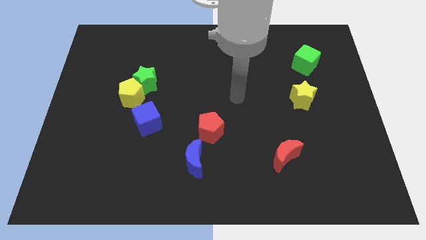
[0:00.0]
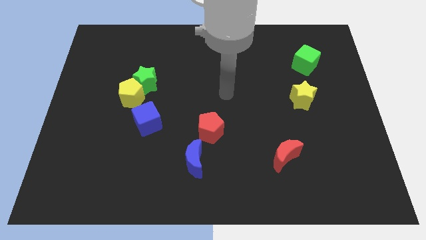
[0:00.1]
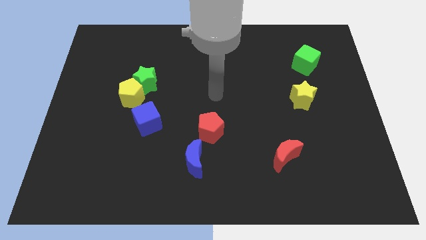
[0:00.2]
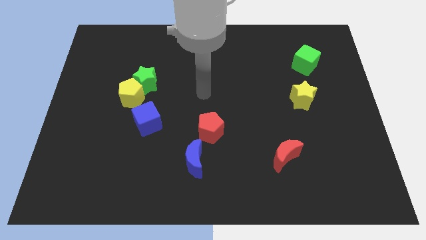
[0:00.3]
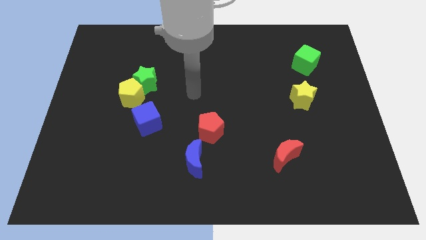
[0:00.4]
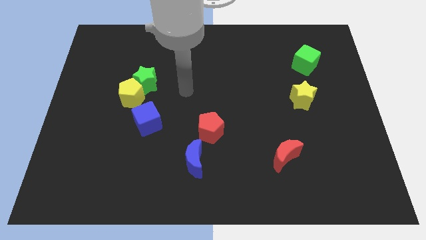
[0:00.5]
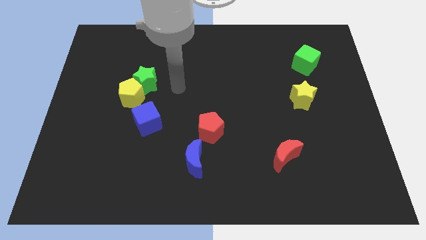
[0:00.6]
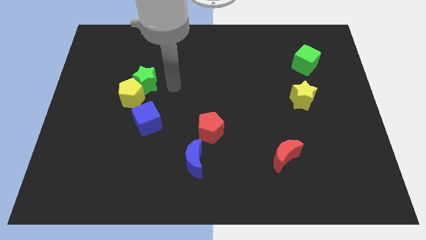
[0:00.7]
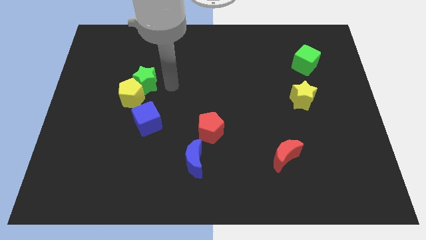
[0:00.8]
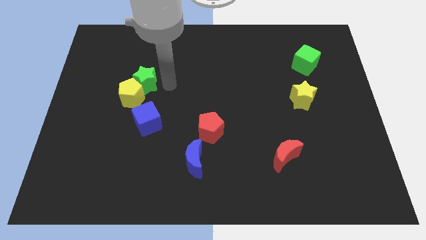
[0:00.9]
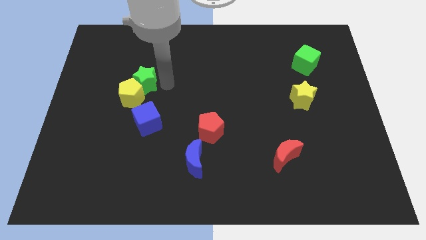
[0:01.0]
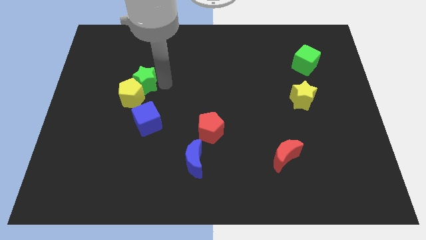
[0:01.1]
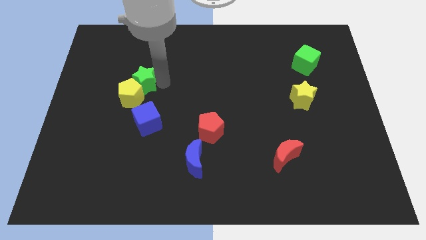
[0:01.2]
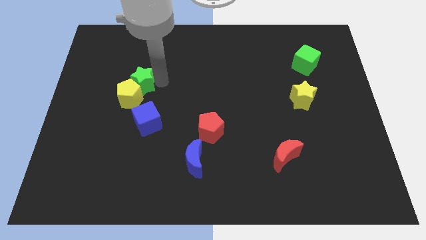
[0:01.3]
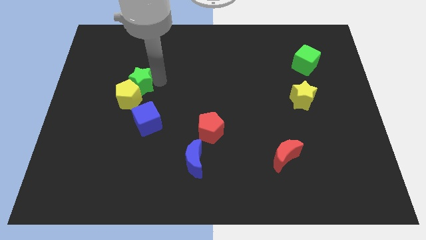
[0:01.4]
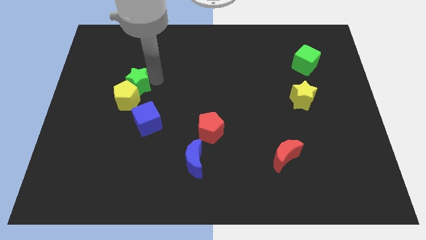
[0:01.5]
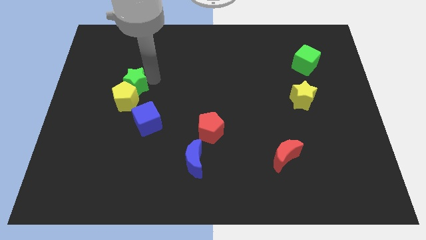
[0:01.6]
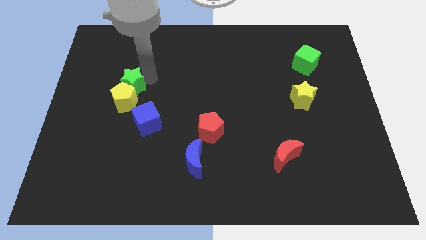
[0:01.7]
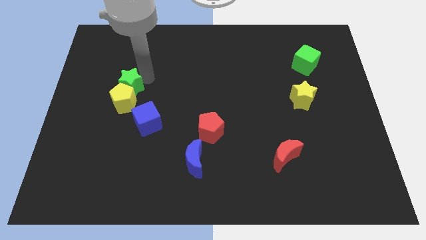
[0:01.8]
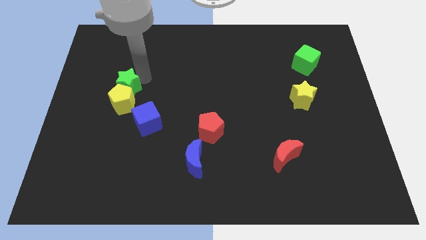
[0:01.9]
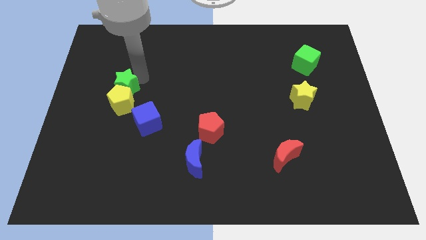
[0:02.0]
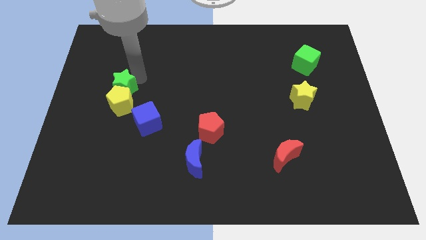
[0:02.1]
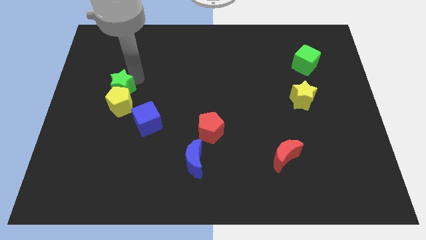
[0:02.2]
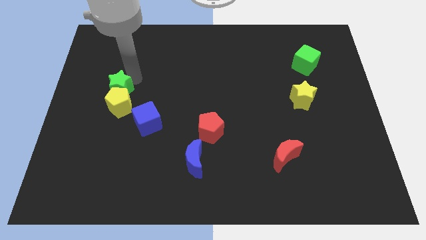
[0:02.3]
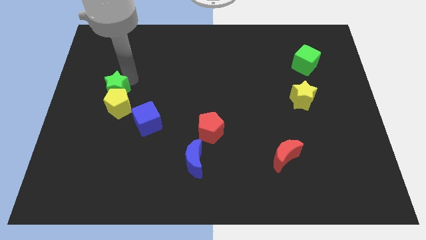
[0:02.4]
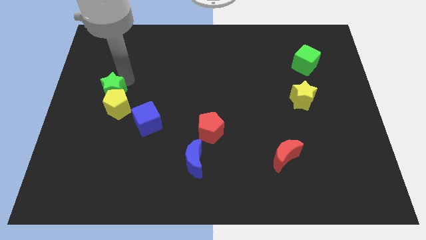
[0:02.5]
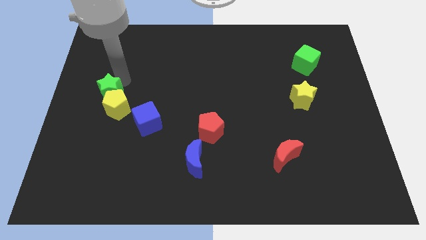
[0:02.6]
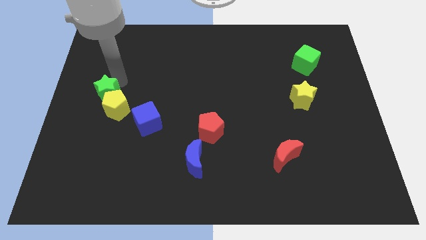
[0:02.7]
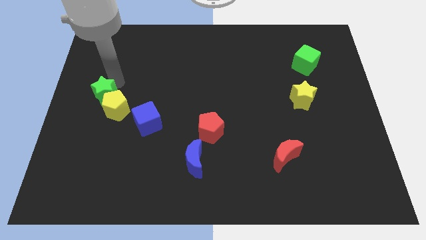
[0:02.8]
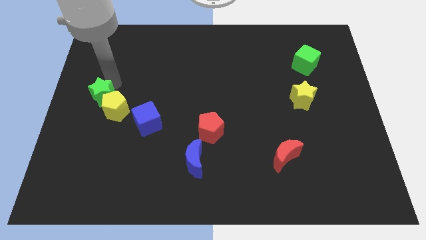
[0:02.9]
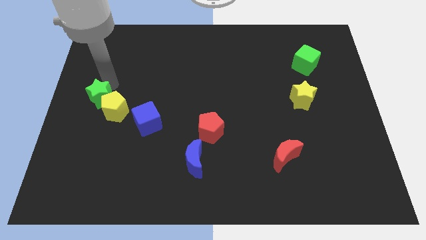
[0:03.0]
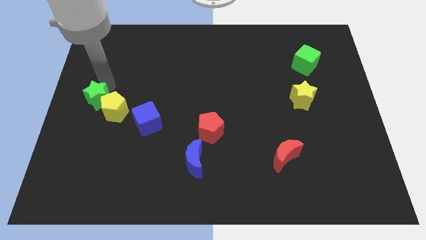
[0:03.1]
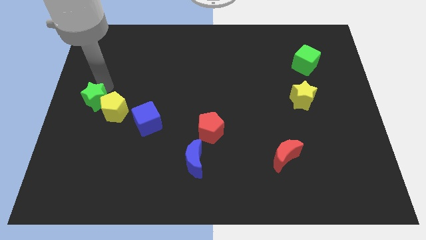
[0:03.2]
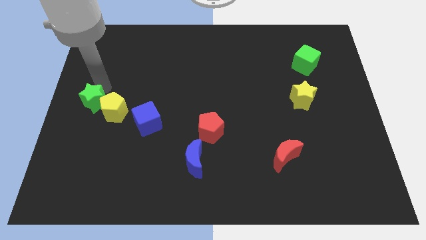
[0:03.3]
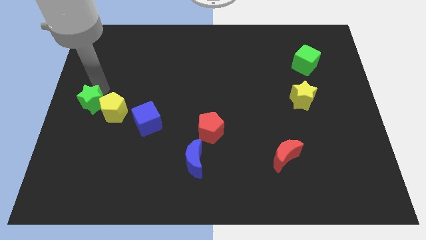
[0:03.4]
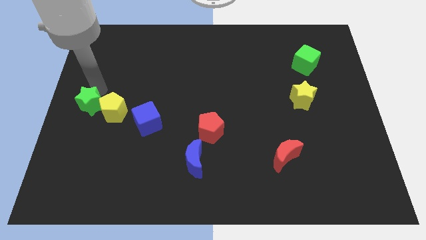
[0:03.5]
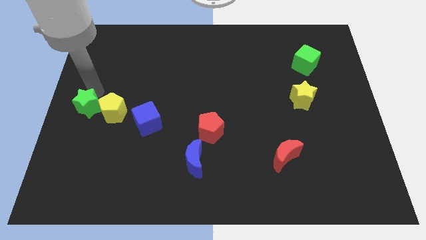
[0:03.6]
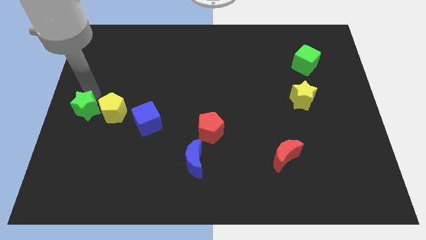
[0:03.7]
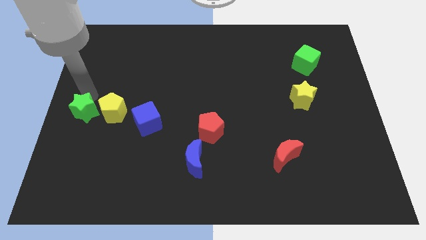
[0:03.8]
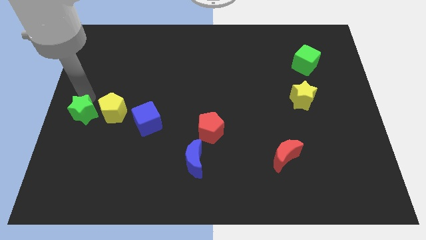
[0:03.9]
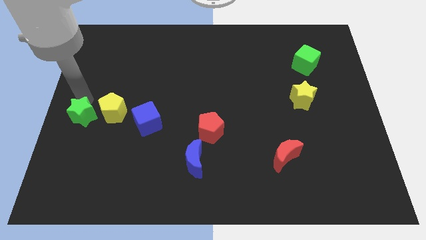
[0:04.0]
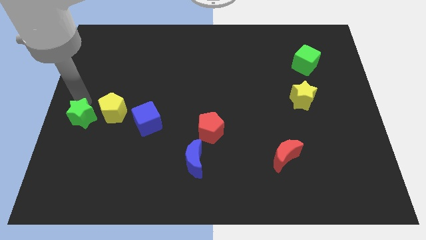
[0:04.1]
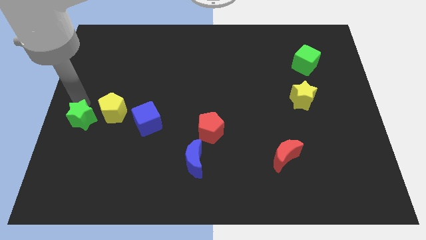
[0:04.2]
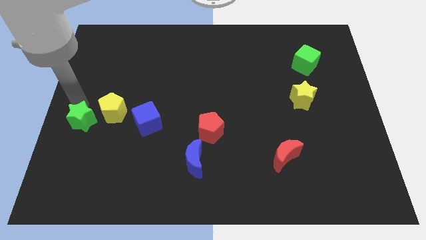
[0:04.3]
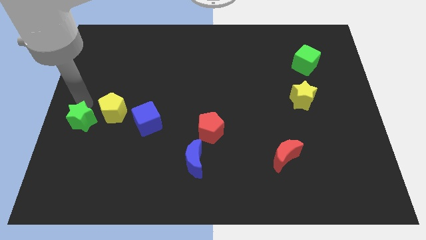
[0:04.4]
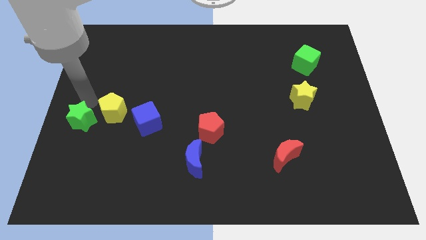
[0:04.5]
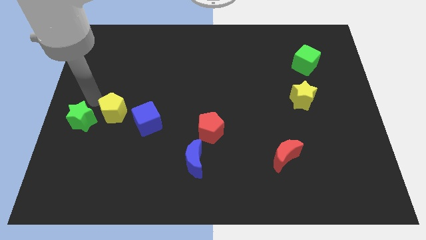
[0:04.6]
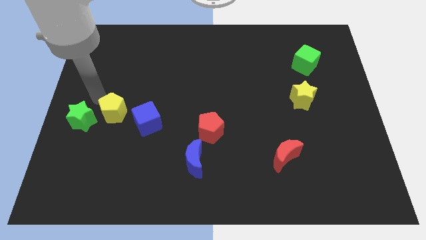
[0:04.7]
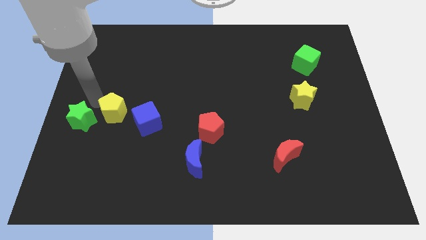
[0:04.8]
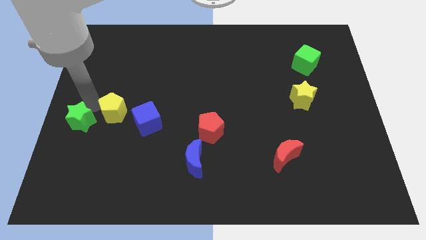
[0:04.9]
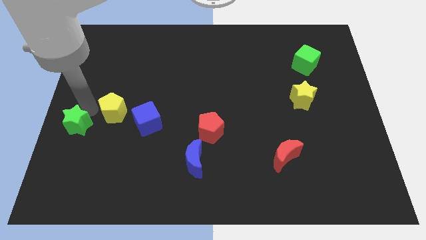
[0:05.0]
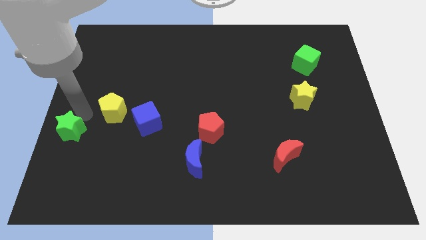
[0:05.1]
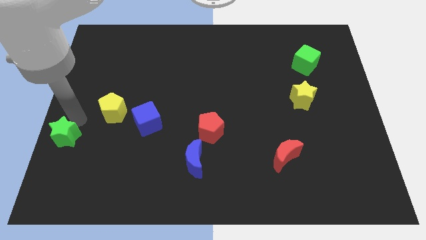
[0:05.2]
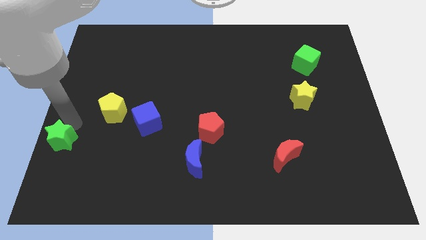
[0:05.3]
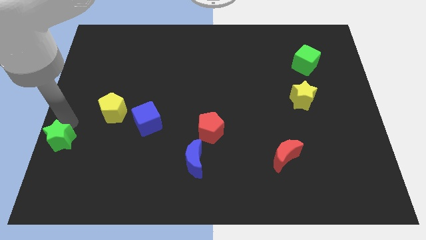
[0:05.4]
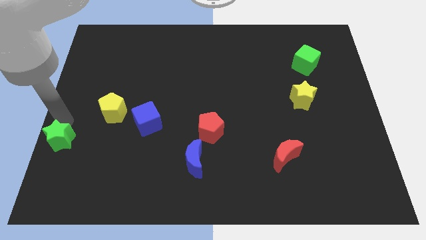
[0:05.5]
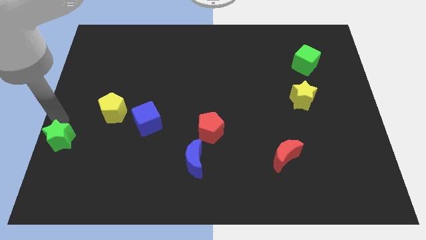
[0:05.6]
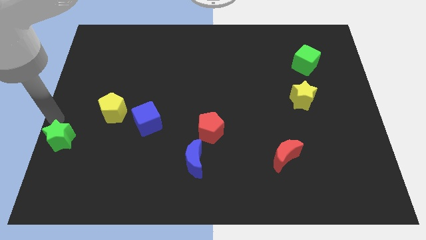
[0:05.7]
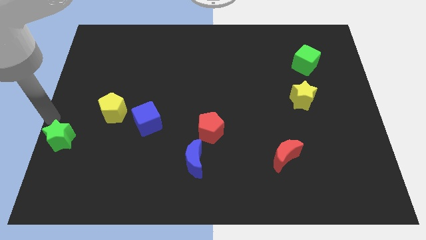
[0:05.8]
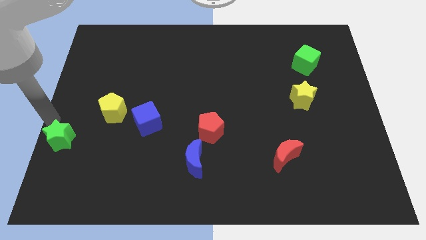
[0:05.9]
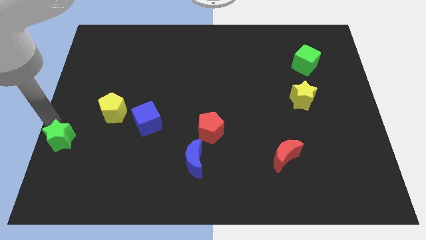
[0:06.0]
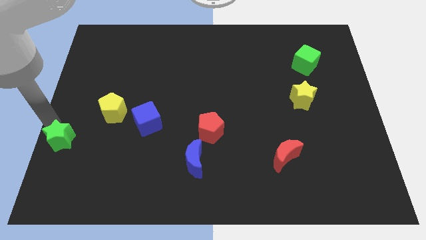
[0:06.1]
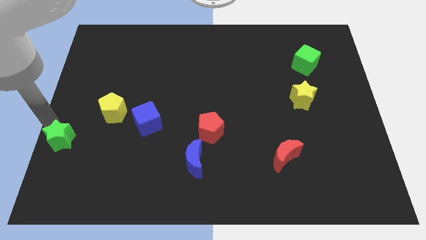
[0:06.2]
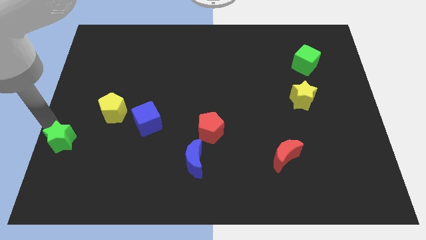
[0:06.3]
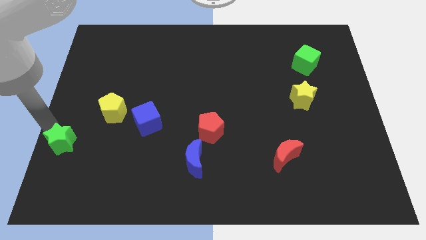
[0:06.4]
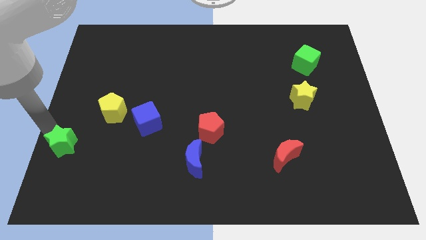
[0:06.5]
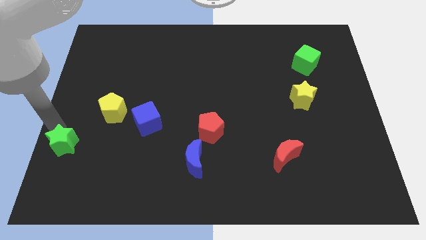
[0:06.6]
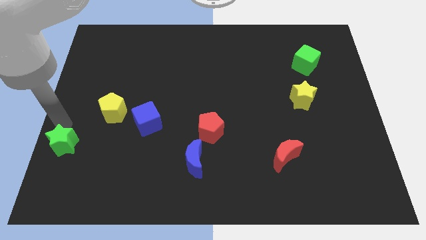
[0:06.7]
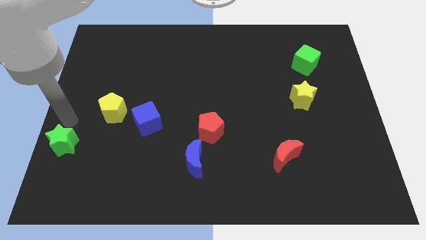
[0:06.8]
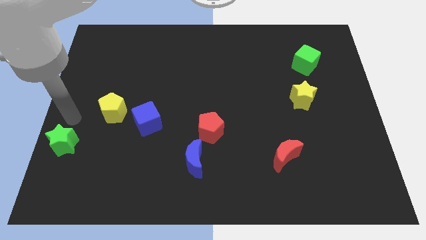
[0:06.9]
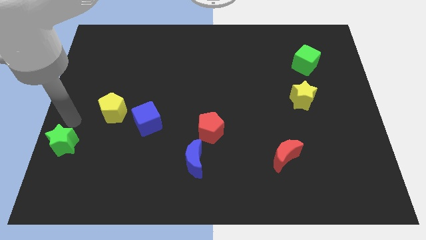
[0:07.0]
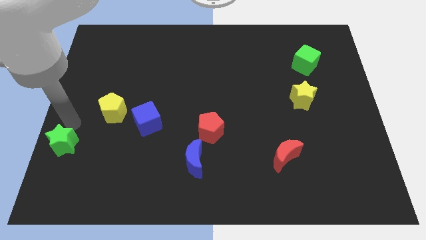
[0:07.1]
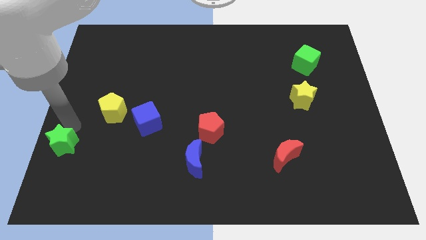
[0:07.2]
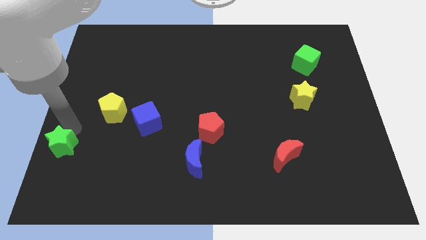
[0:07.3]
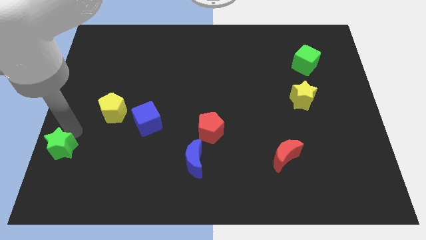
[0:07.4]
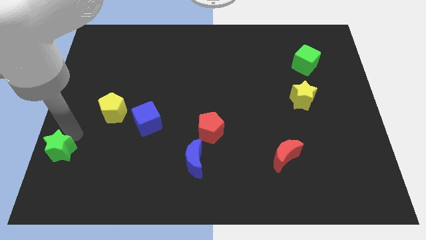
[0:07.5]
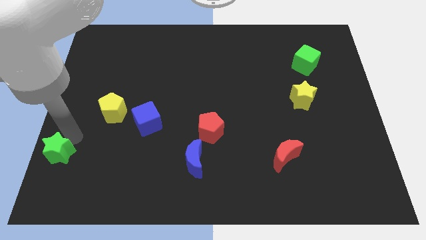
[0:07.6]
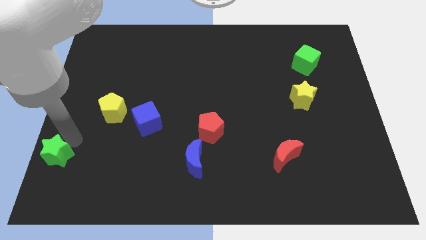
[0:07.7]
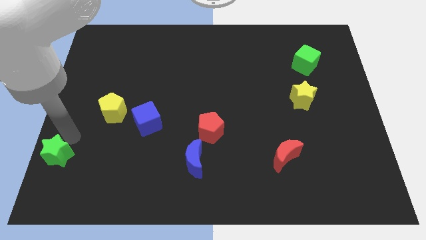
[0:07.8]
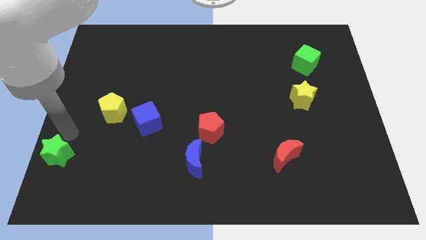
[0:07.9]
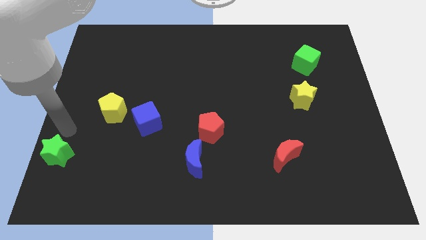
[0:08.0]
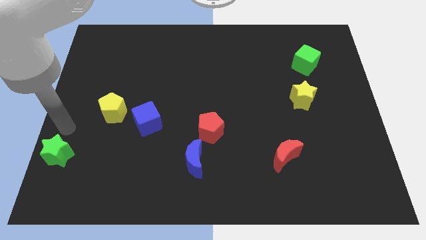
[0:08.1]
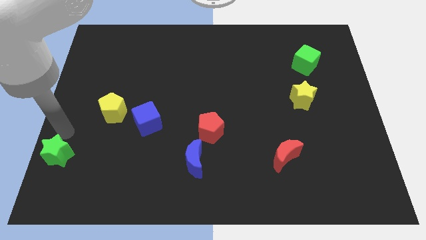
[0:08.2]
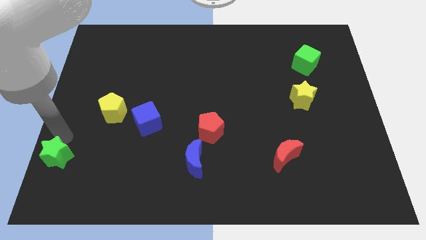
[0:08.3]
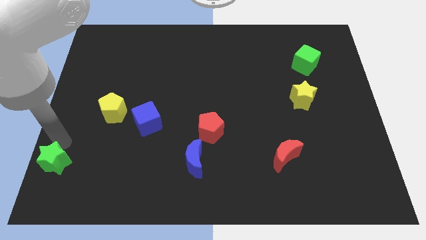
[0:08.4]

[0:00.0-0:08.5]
push the green star to the bottom left corner
